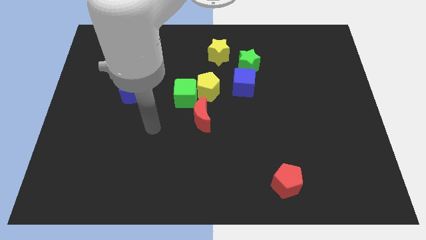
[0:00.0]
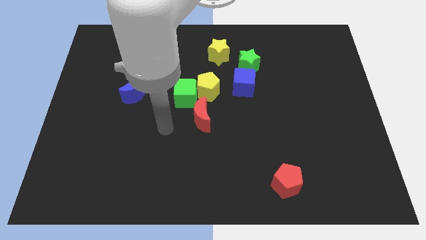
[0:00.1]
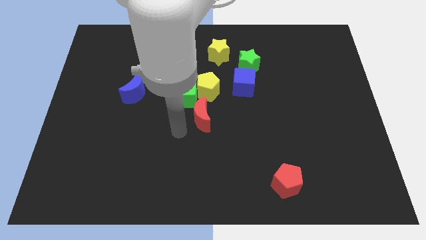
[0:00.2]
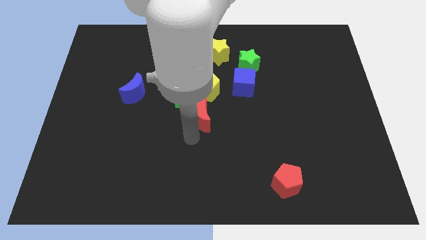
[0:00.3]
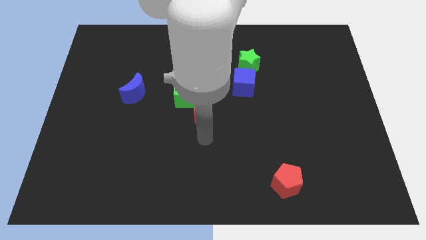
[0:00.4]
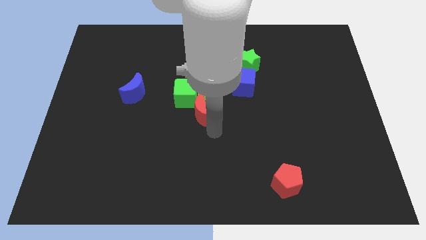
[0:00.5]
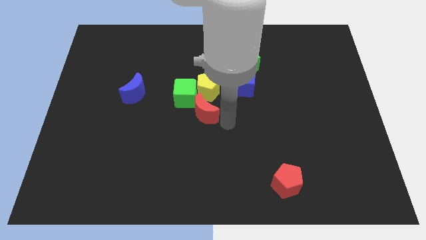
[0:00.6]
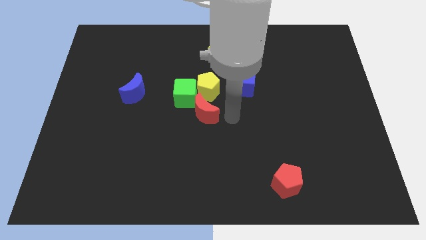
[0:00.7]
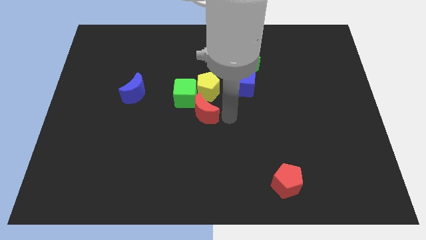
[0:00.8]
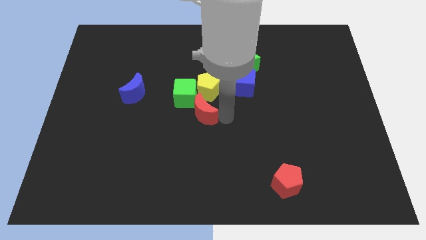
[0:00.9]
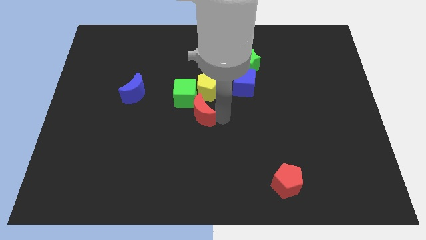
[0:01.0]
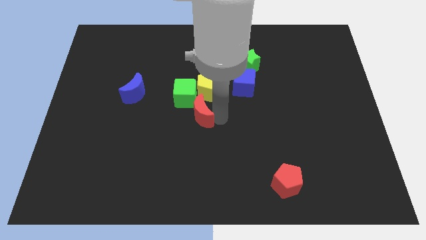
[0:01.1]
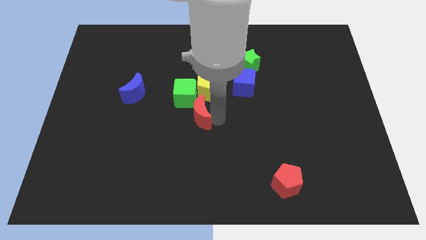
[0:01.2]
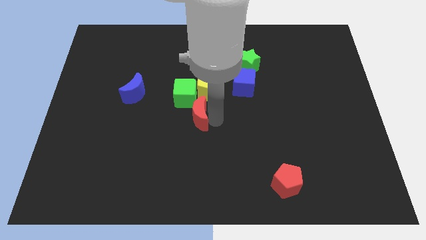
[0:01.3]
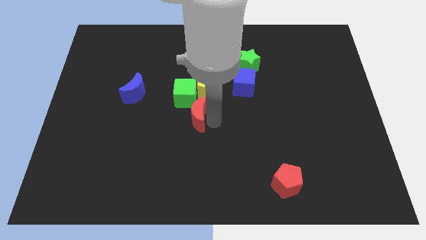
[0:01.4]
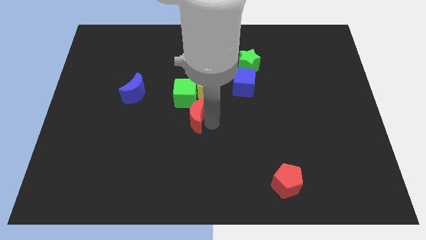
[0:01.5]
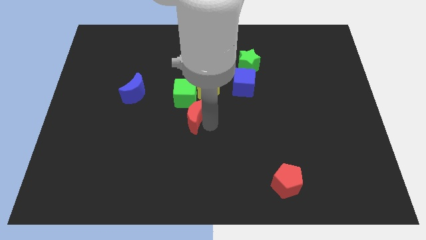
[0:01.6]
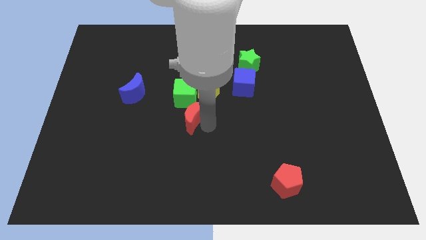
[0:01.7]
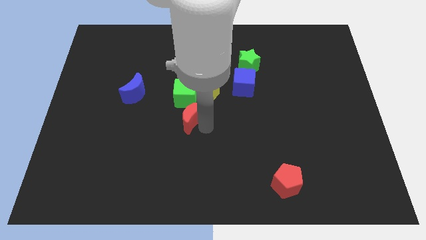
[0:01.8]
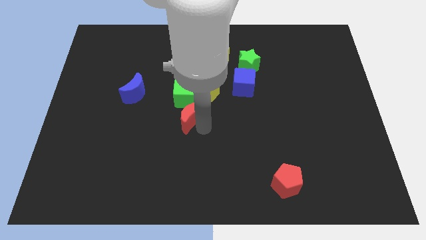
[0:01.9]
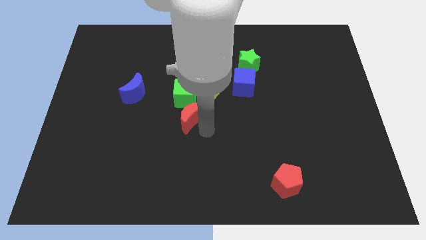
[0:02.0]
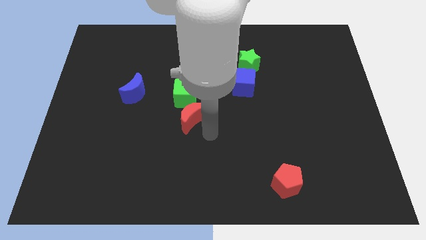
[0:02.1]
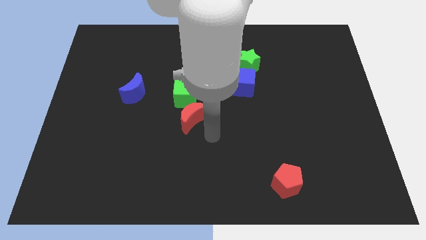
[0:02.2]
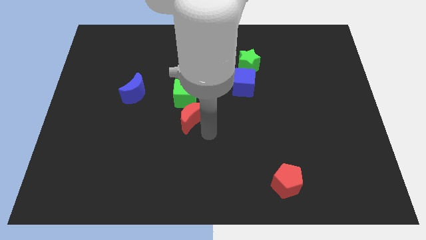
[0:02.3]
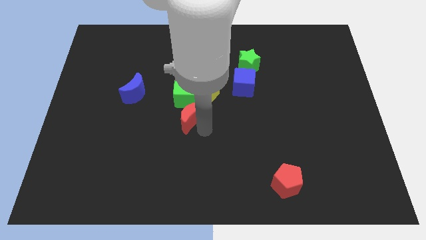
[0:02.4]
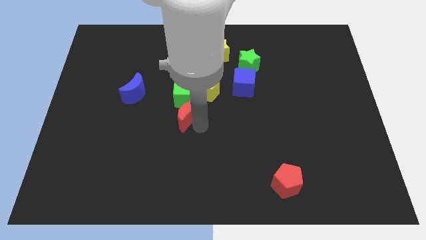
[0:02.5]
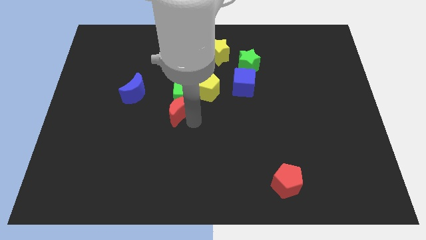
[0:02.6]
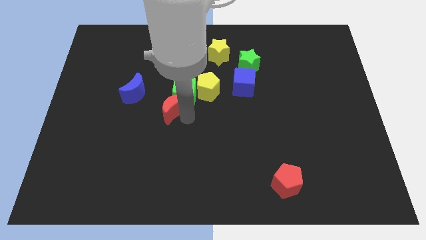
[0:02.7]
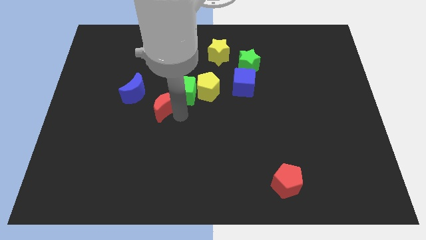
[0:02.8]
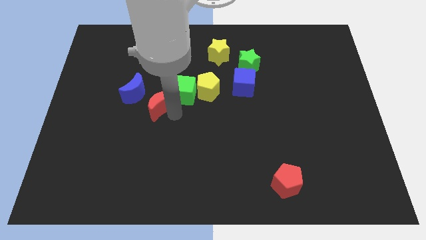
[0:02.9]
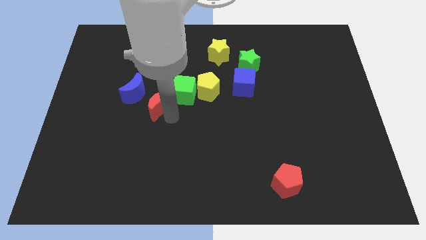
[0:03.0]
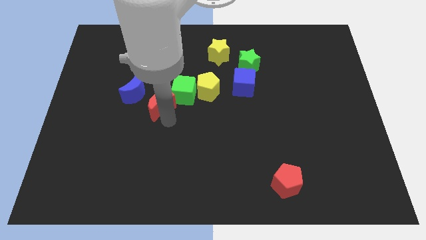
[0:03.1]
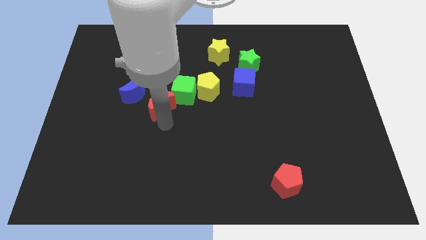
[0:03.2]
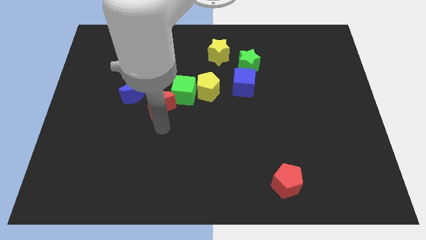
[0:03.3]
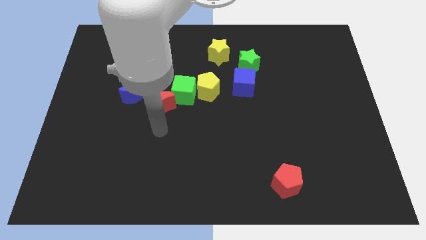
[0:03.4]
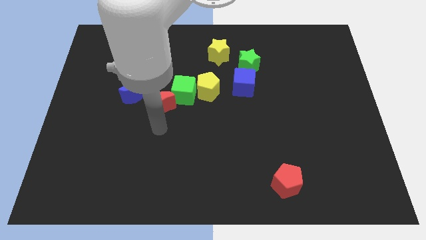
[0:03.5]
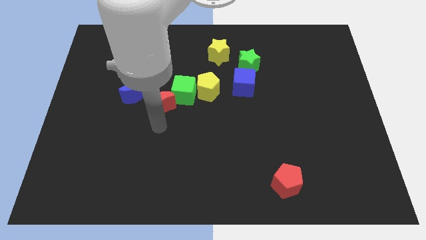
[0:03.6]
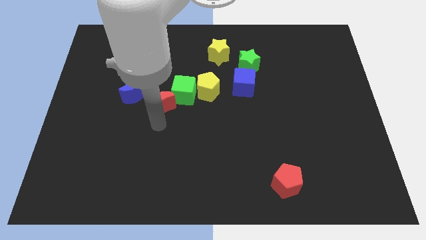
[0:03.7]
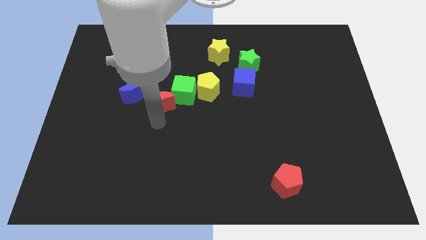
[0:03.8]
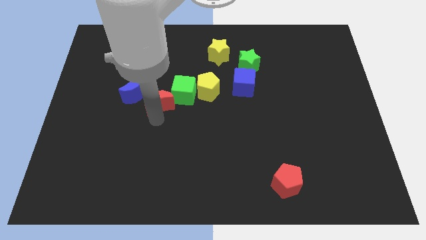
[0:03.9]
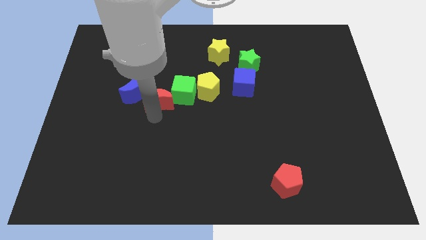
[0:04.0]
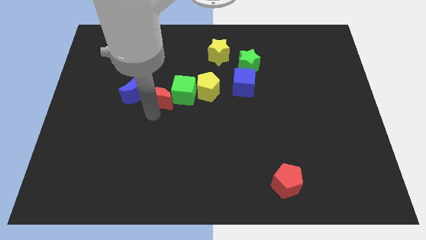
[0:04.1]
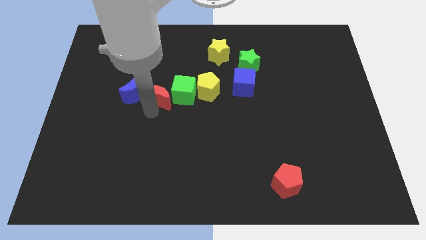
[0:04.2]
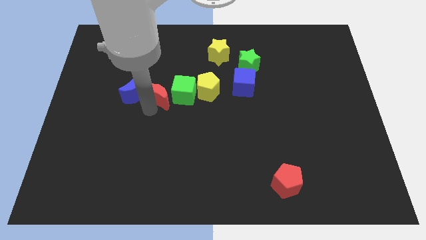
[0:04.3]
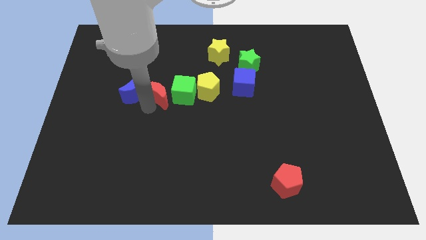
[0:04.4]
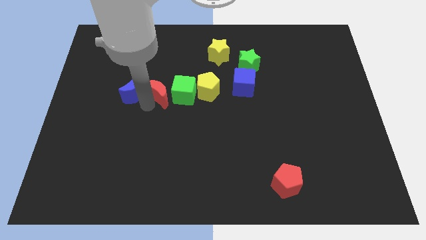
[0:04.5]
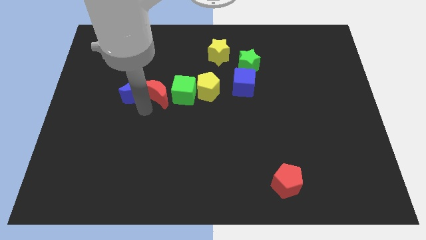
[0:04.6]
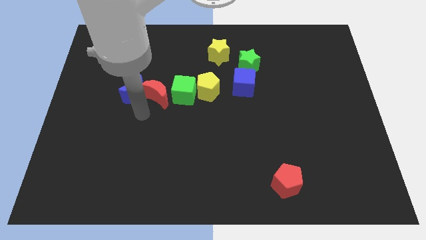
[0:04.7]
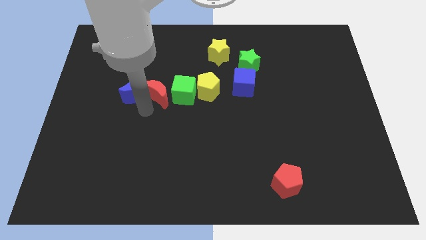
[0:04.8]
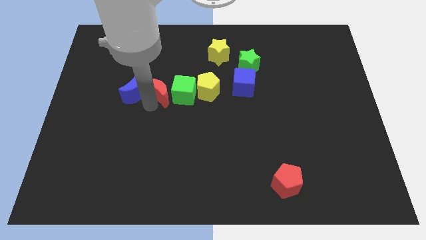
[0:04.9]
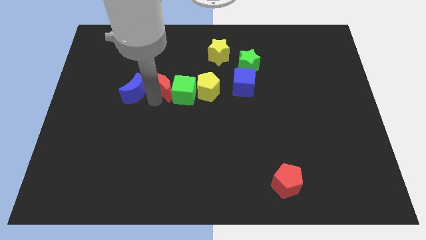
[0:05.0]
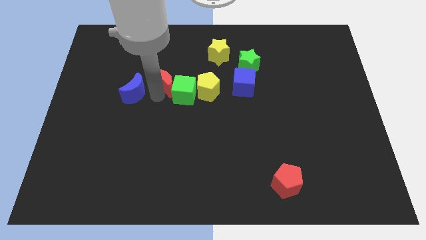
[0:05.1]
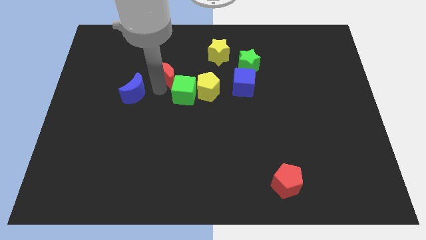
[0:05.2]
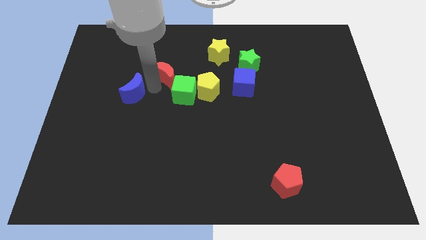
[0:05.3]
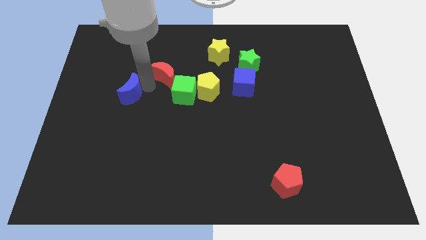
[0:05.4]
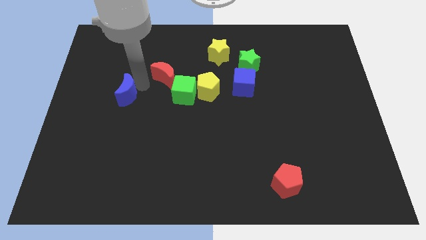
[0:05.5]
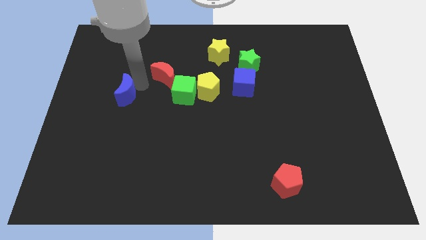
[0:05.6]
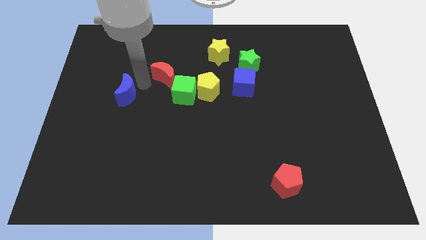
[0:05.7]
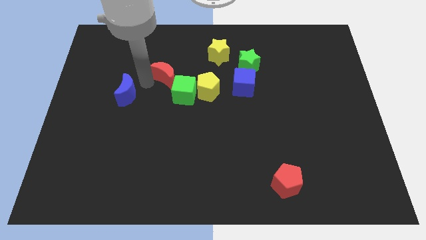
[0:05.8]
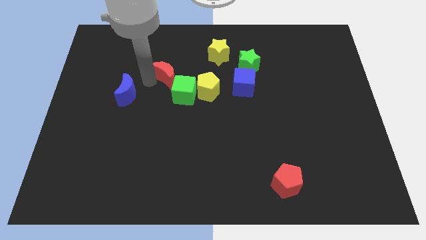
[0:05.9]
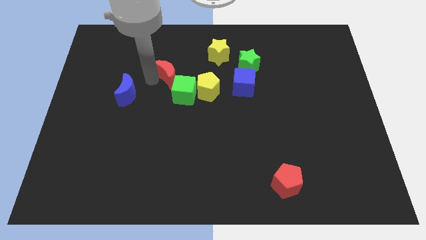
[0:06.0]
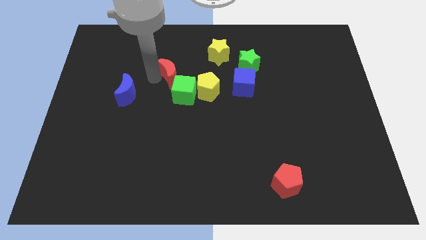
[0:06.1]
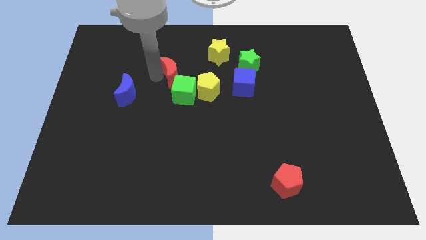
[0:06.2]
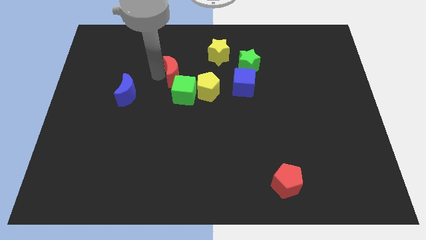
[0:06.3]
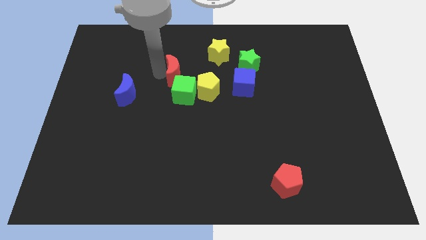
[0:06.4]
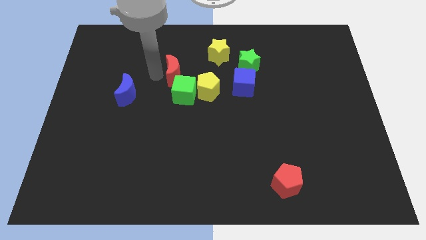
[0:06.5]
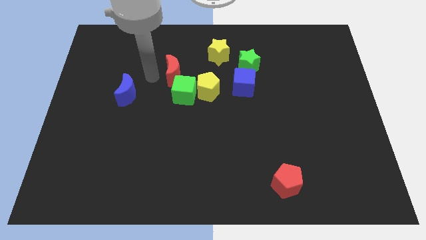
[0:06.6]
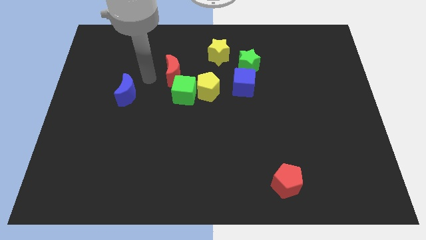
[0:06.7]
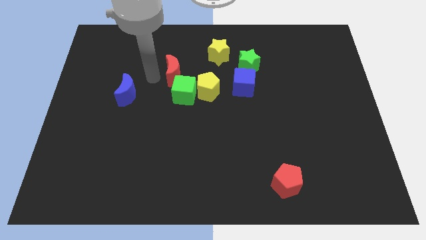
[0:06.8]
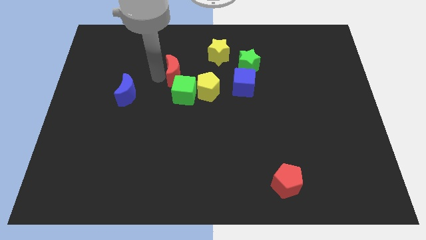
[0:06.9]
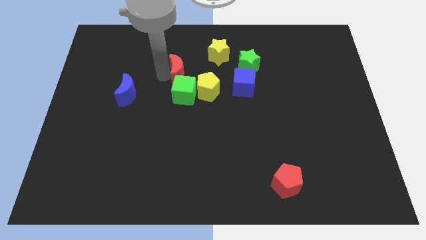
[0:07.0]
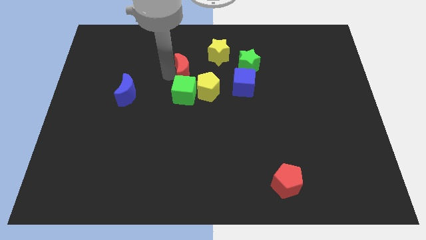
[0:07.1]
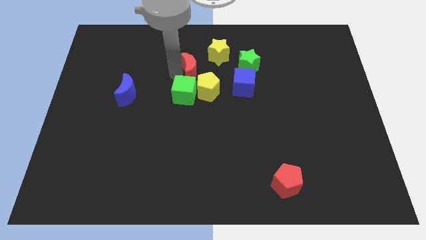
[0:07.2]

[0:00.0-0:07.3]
slide the red moon to the left of the green star

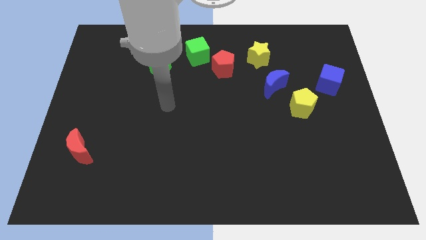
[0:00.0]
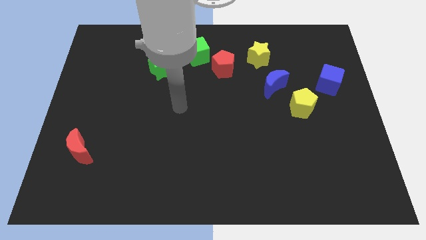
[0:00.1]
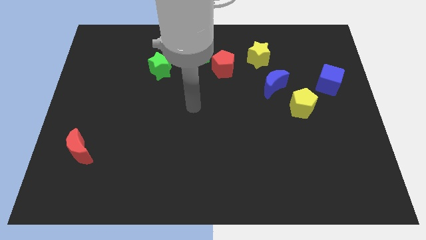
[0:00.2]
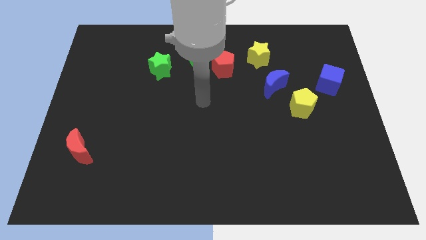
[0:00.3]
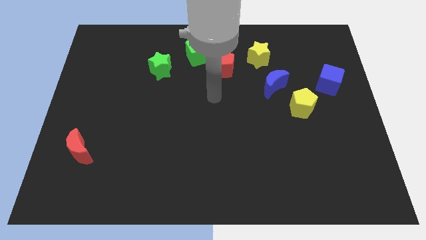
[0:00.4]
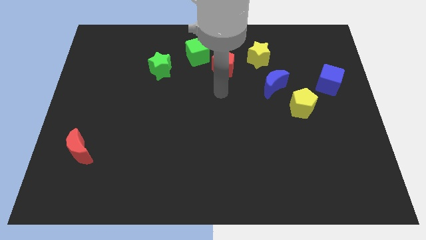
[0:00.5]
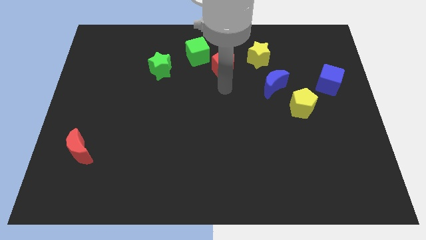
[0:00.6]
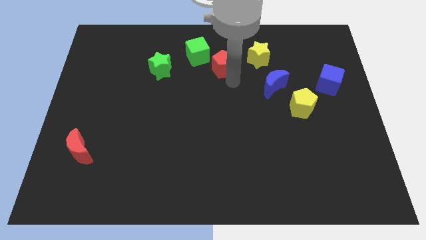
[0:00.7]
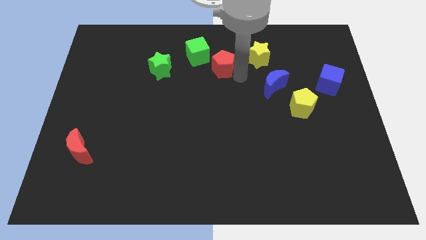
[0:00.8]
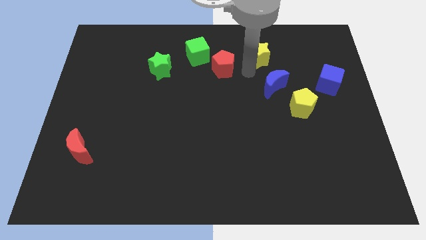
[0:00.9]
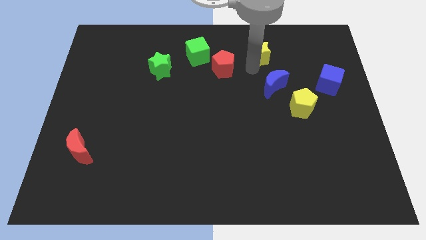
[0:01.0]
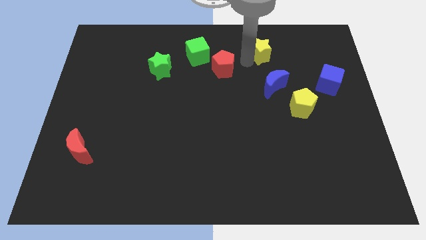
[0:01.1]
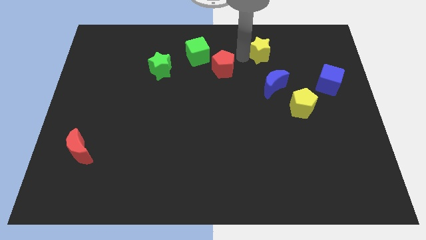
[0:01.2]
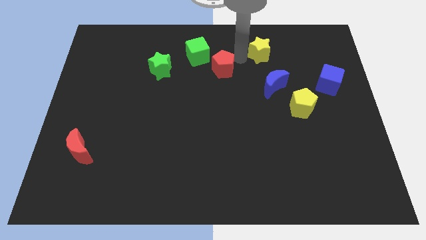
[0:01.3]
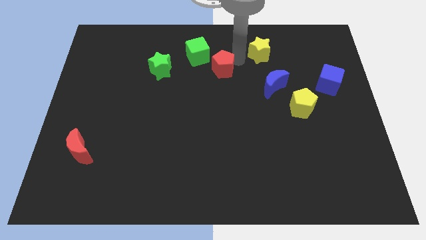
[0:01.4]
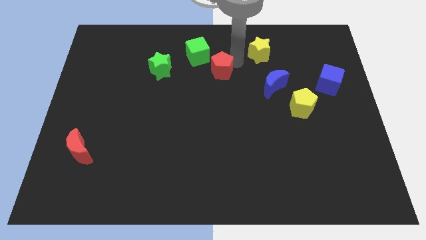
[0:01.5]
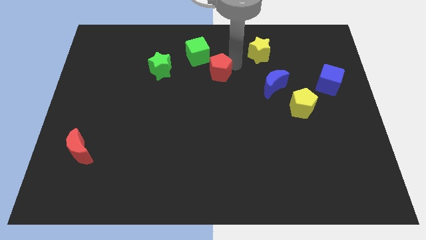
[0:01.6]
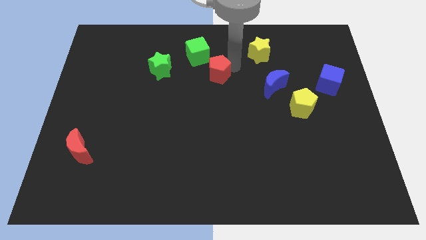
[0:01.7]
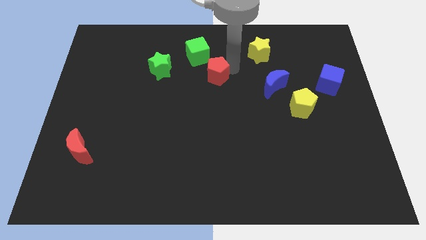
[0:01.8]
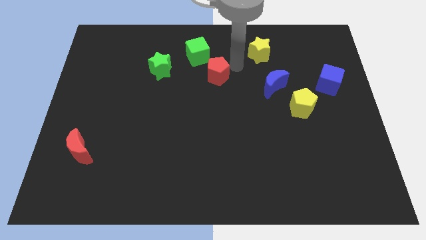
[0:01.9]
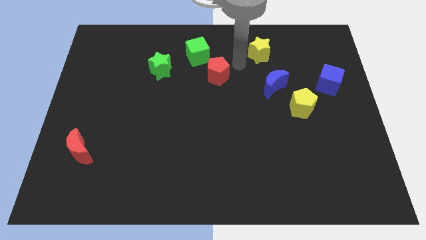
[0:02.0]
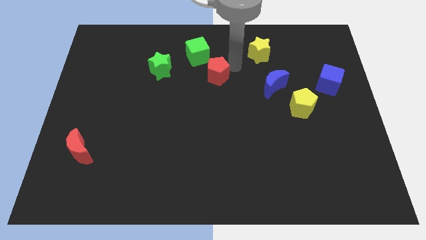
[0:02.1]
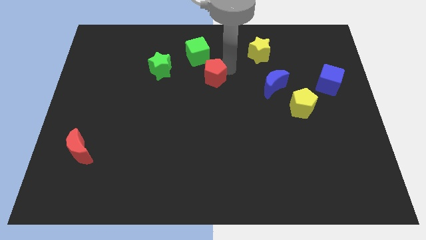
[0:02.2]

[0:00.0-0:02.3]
put the red pentagon below the green cube
